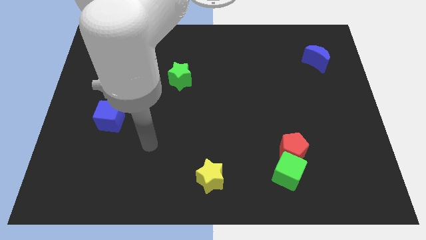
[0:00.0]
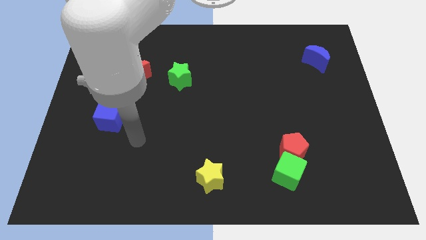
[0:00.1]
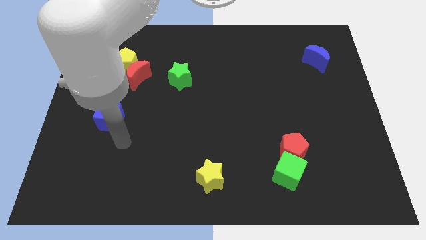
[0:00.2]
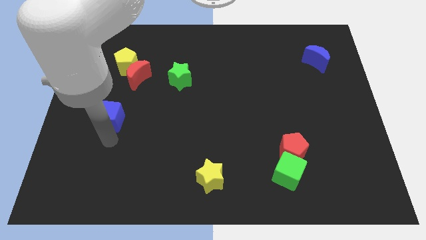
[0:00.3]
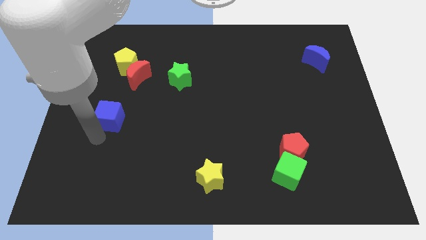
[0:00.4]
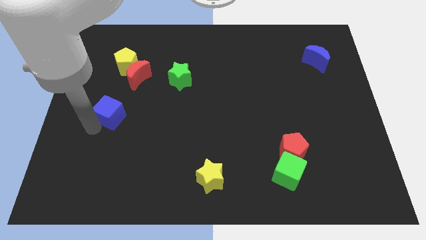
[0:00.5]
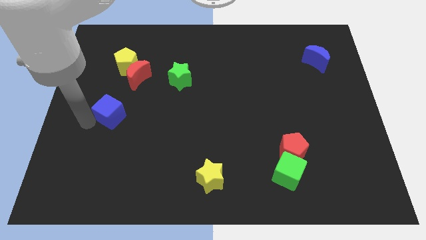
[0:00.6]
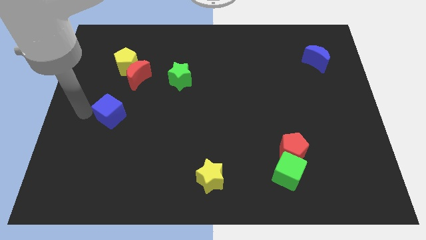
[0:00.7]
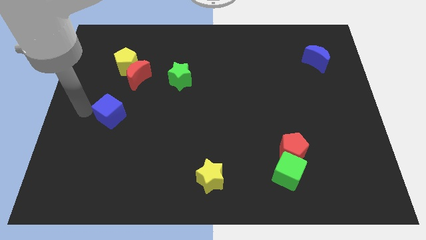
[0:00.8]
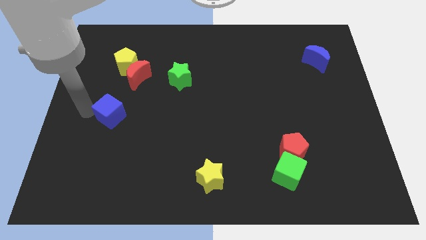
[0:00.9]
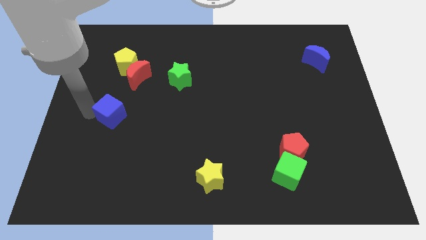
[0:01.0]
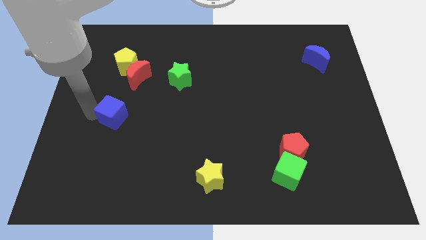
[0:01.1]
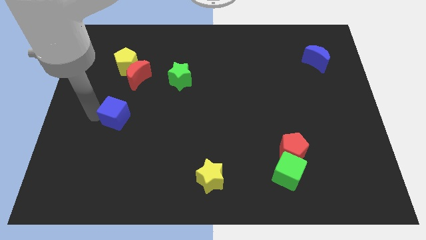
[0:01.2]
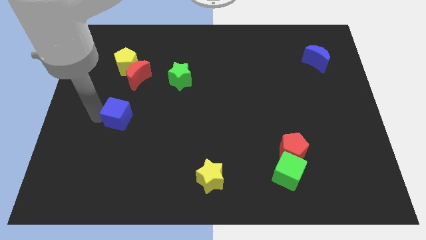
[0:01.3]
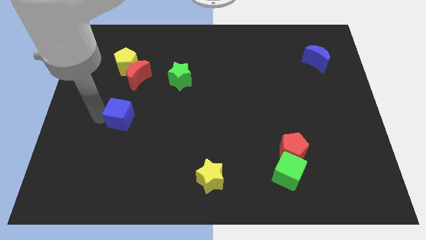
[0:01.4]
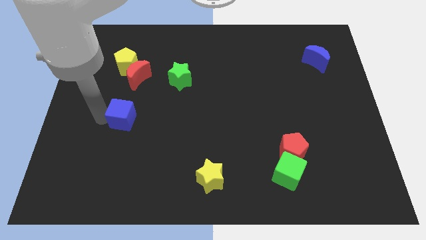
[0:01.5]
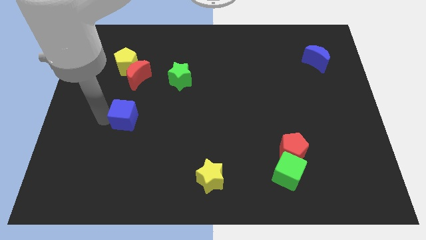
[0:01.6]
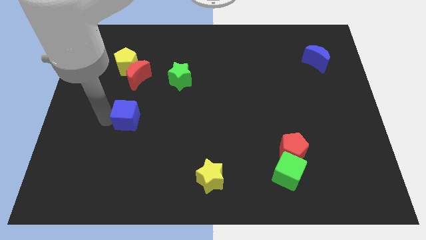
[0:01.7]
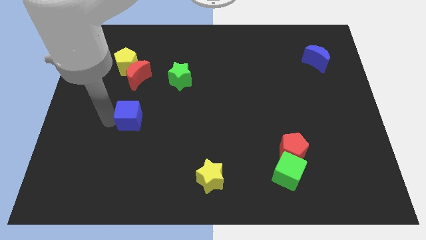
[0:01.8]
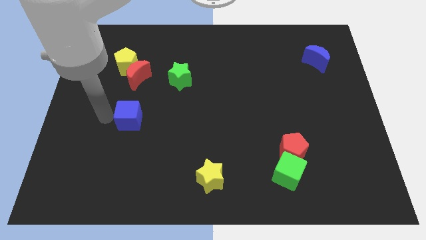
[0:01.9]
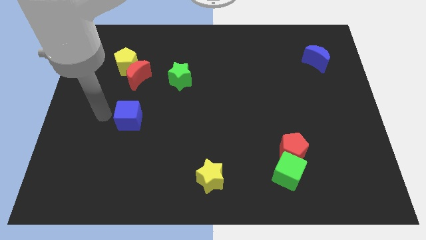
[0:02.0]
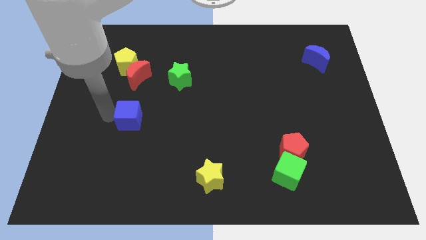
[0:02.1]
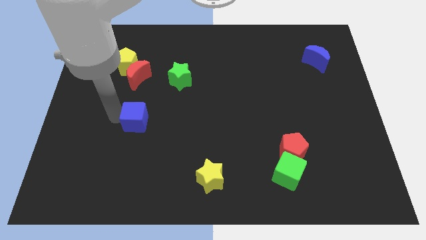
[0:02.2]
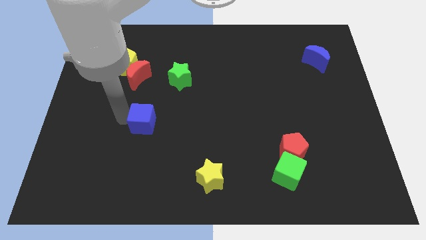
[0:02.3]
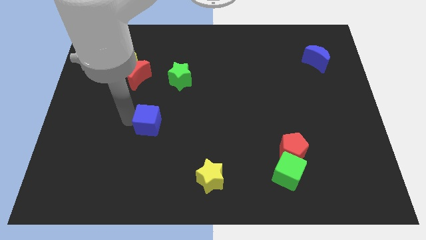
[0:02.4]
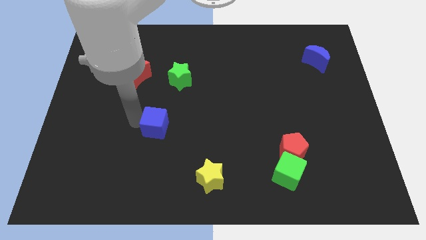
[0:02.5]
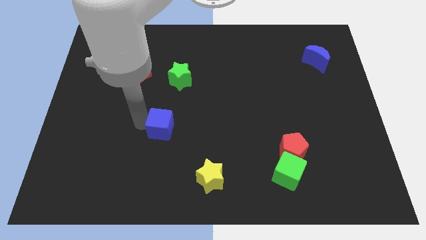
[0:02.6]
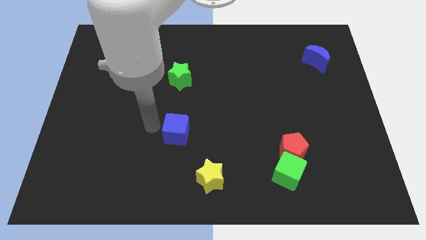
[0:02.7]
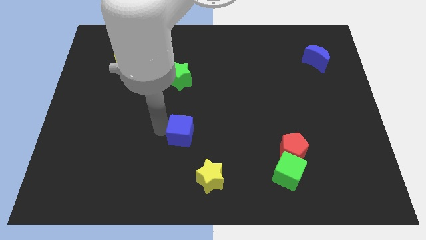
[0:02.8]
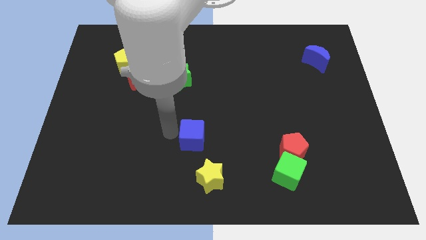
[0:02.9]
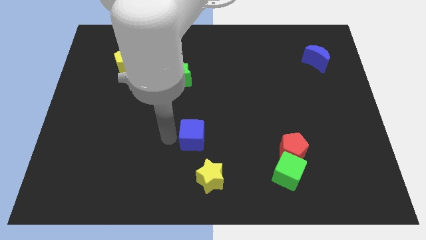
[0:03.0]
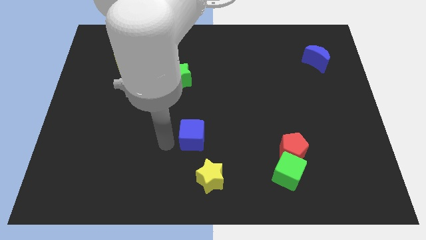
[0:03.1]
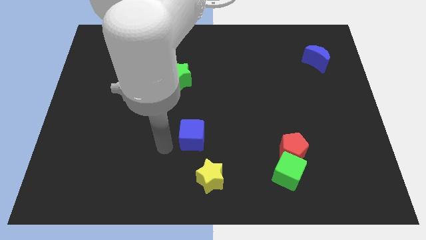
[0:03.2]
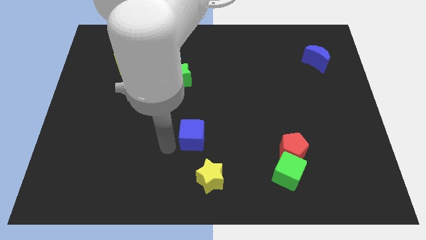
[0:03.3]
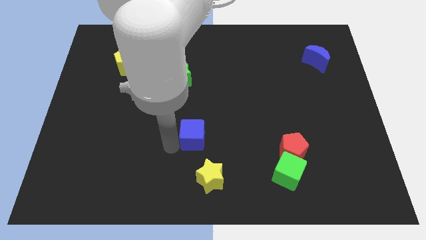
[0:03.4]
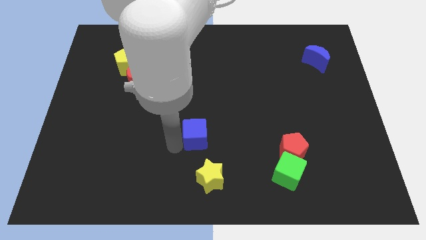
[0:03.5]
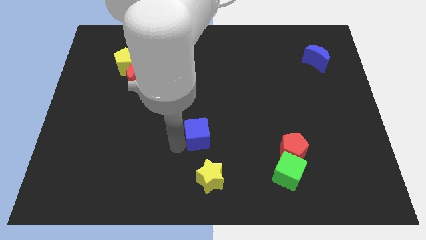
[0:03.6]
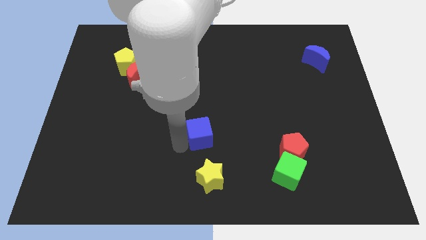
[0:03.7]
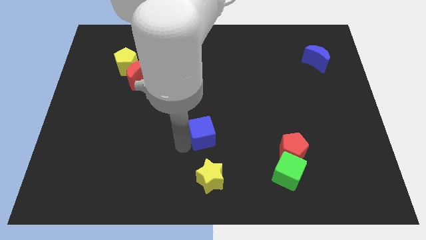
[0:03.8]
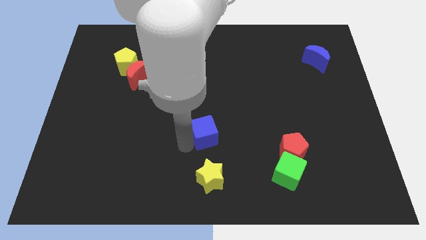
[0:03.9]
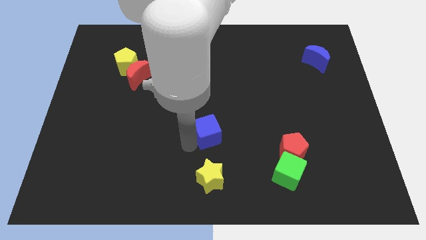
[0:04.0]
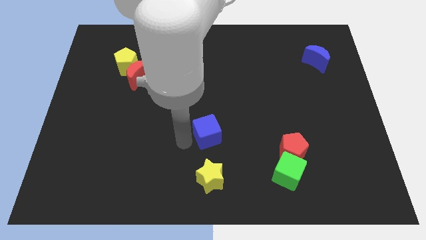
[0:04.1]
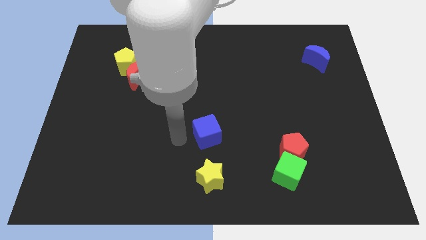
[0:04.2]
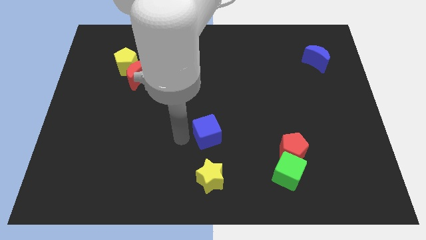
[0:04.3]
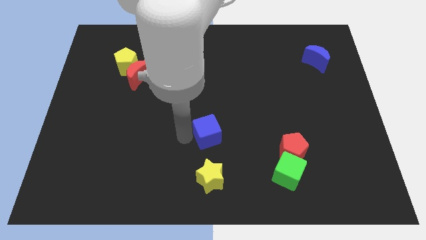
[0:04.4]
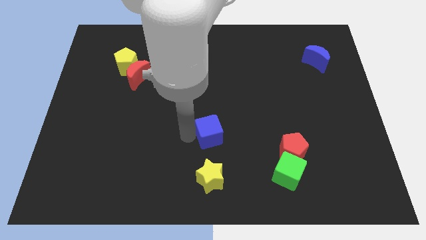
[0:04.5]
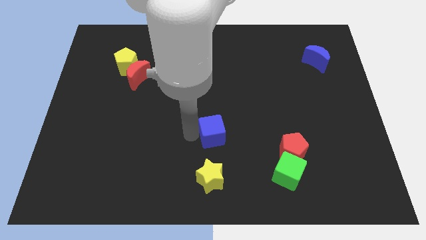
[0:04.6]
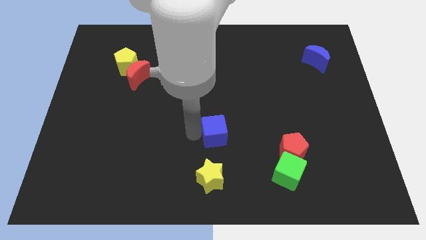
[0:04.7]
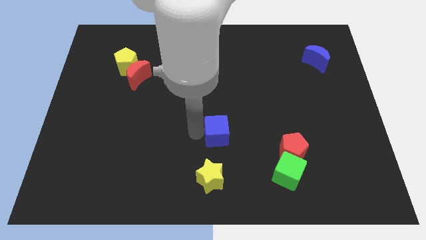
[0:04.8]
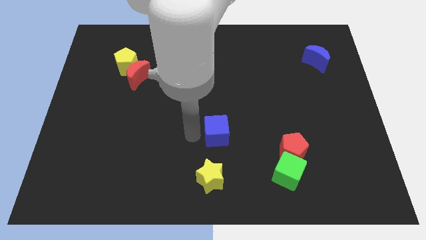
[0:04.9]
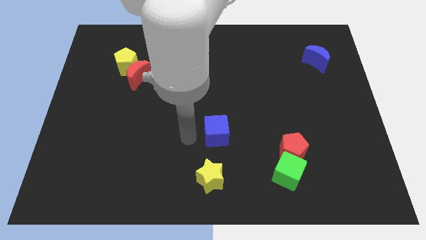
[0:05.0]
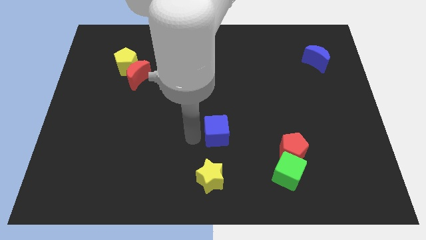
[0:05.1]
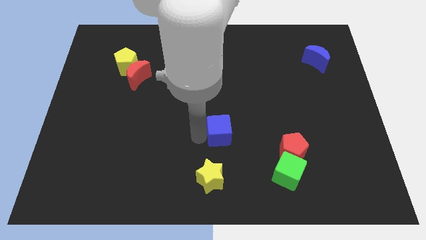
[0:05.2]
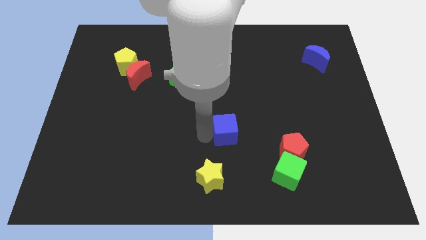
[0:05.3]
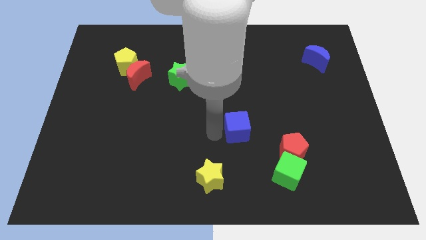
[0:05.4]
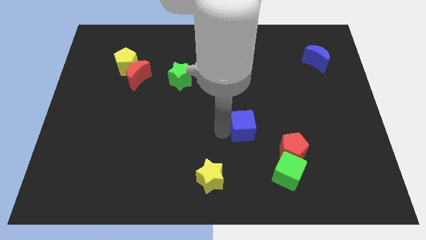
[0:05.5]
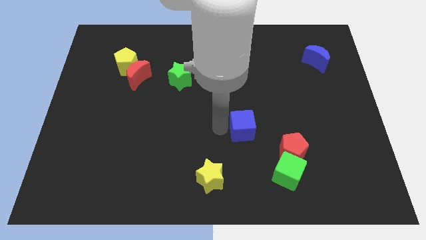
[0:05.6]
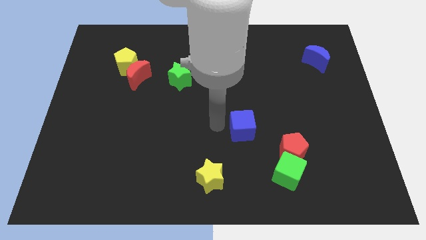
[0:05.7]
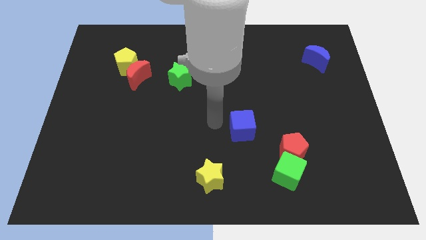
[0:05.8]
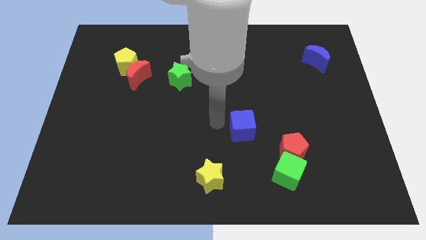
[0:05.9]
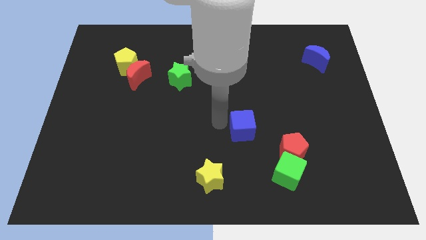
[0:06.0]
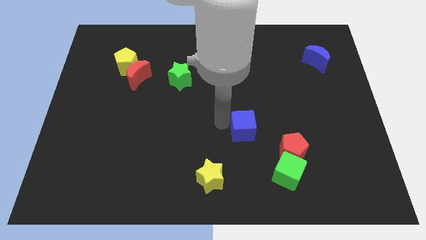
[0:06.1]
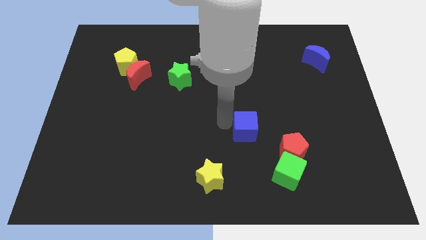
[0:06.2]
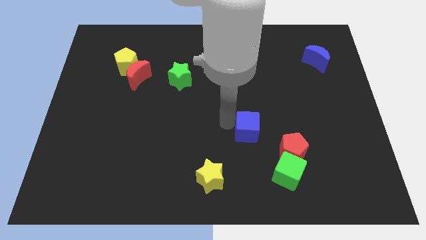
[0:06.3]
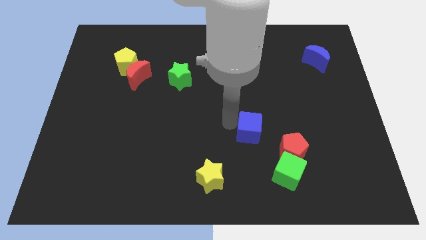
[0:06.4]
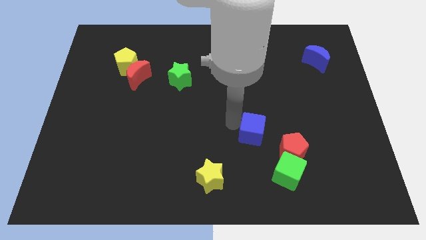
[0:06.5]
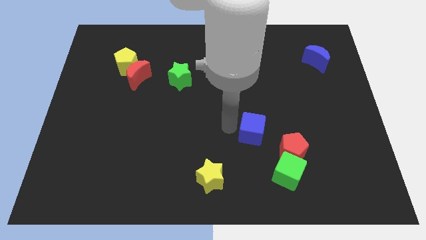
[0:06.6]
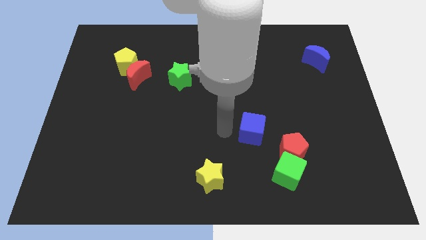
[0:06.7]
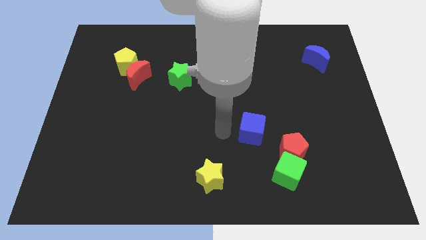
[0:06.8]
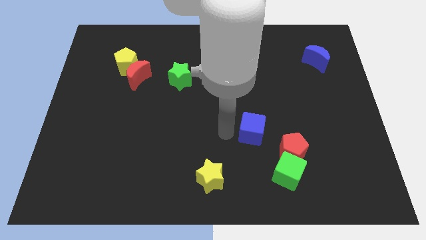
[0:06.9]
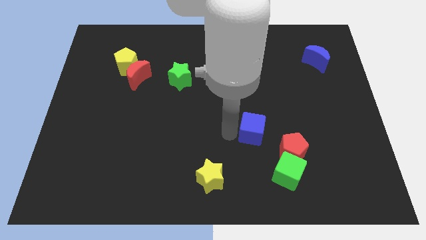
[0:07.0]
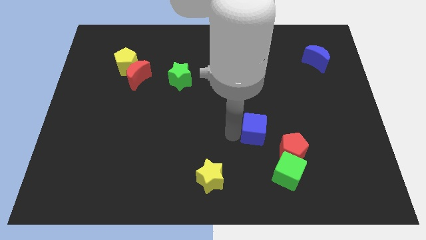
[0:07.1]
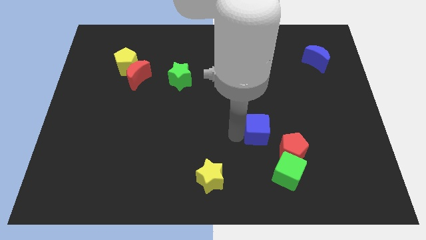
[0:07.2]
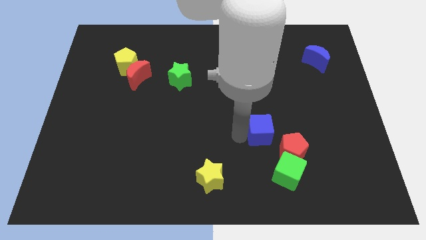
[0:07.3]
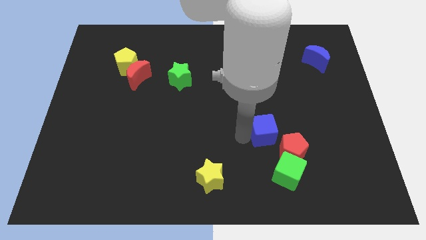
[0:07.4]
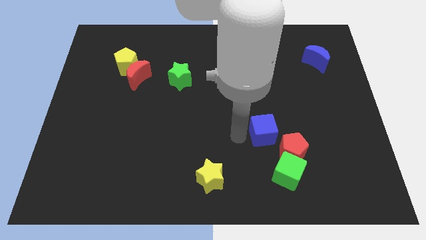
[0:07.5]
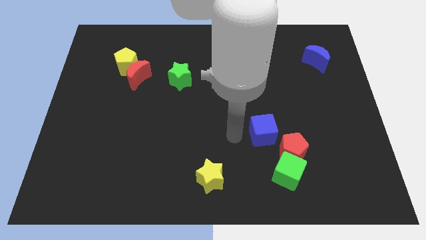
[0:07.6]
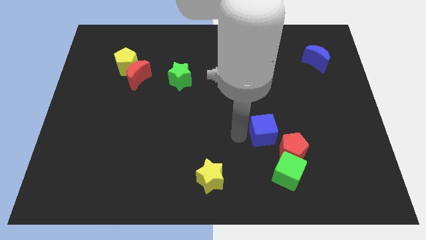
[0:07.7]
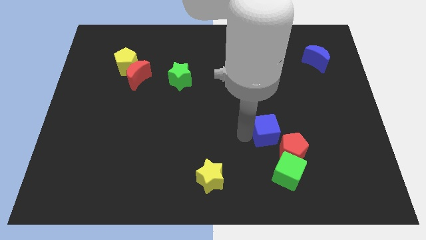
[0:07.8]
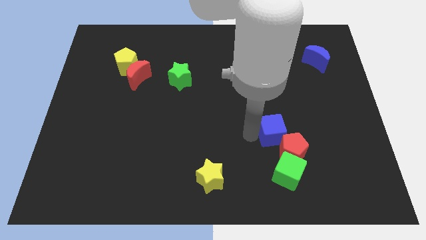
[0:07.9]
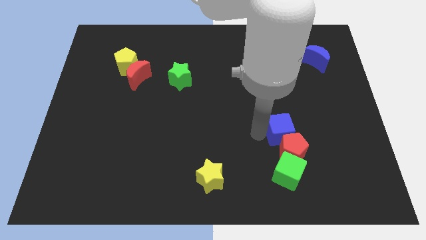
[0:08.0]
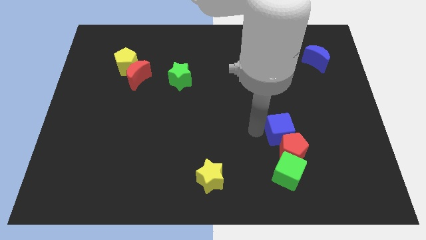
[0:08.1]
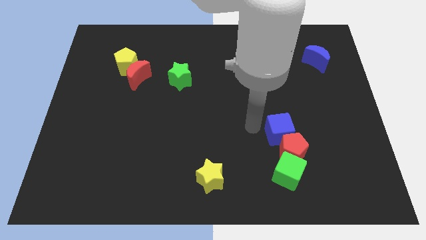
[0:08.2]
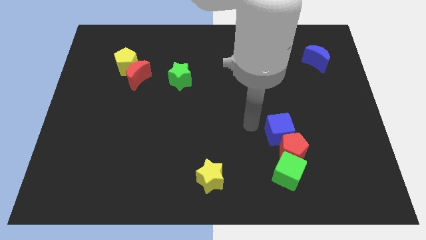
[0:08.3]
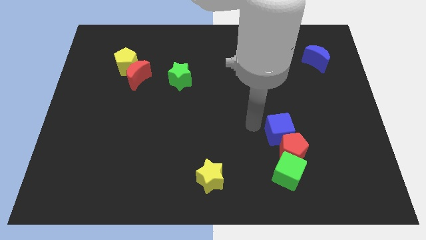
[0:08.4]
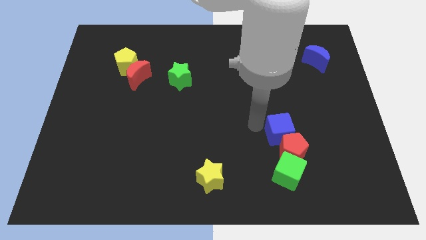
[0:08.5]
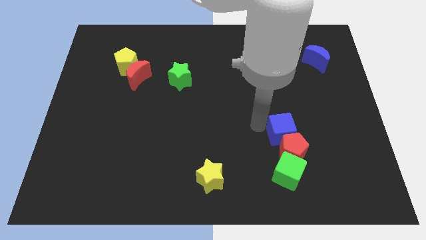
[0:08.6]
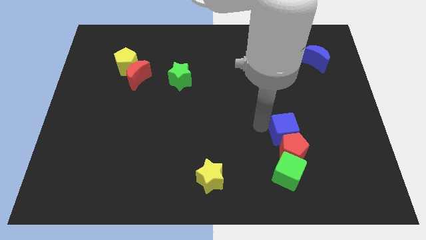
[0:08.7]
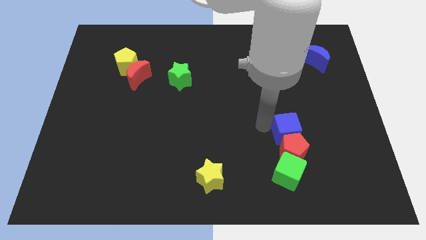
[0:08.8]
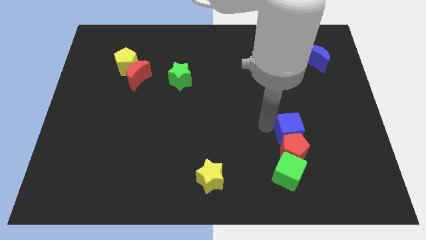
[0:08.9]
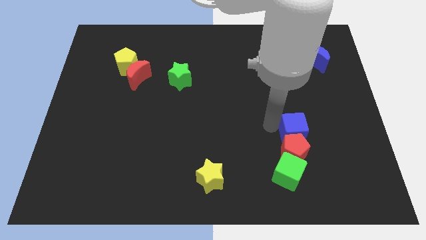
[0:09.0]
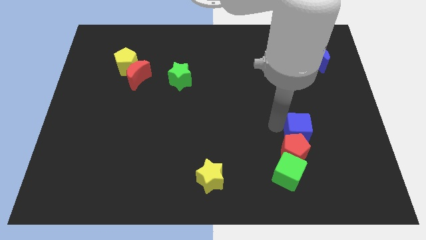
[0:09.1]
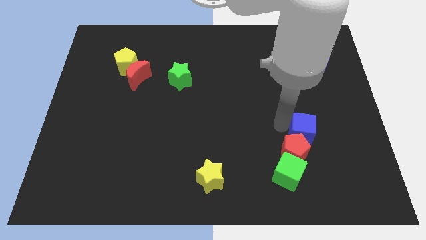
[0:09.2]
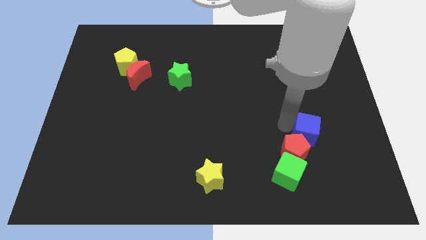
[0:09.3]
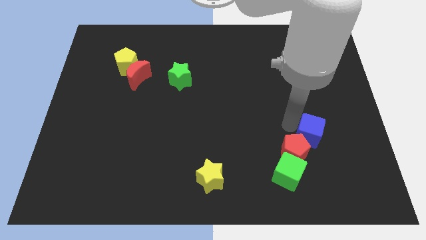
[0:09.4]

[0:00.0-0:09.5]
move the blue cube right of the red pentagon
